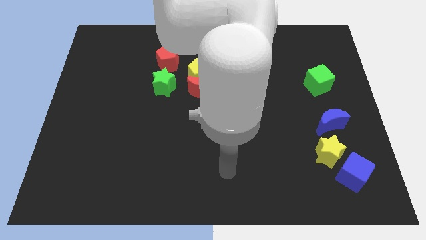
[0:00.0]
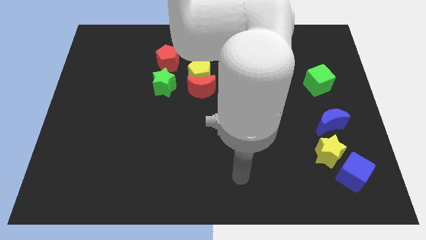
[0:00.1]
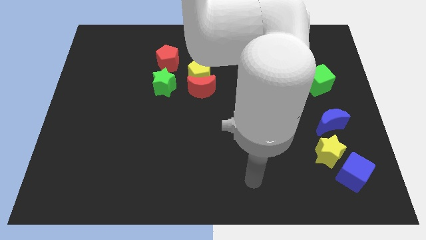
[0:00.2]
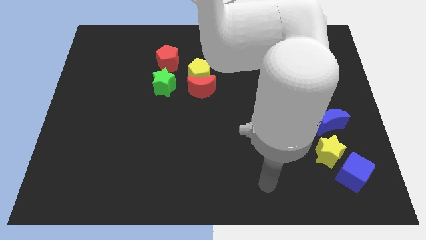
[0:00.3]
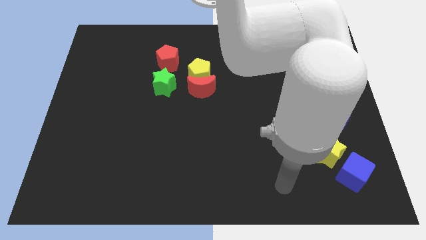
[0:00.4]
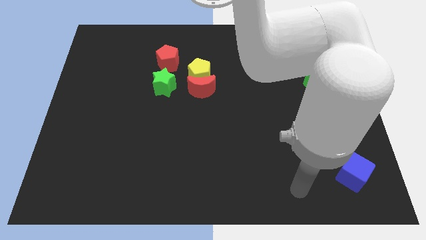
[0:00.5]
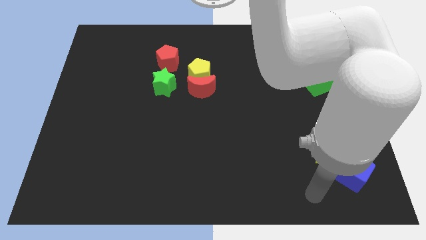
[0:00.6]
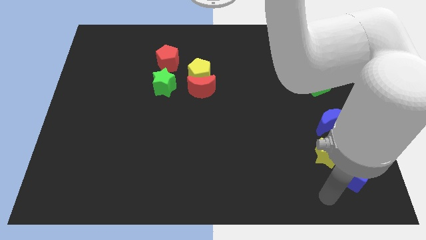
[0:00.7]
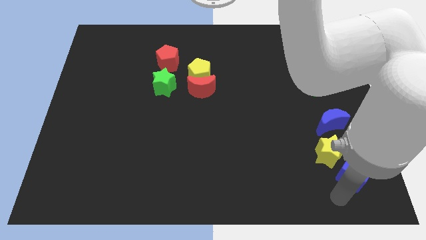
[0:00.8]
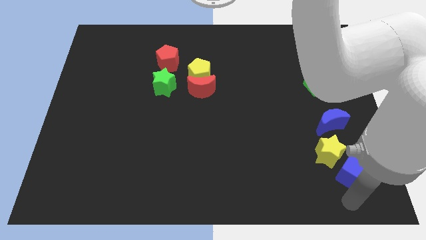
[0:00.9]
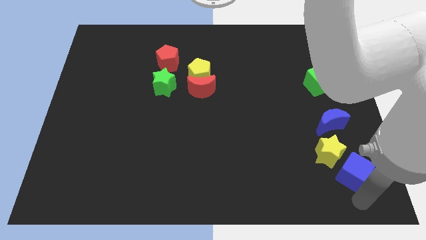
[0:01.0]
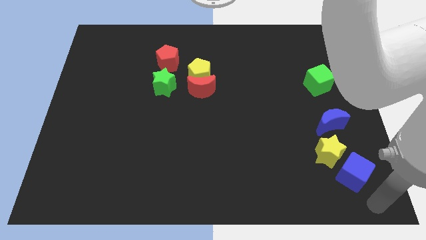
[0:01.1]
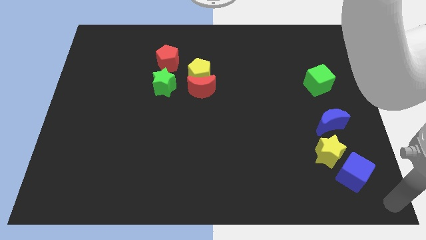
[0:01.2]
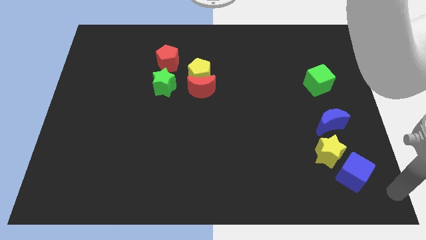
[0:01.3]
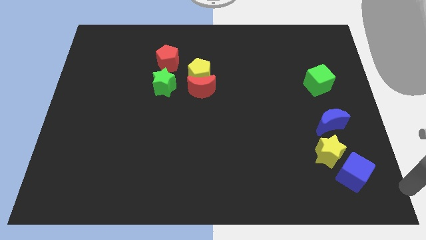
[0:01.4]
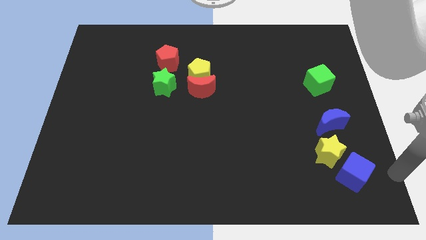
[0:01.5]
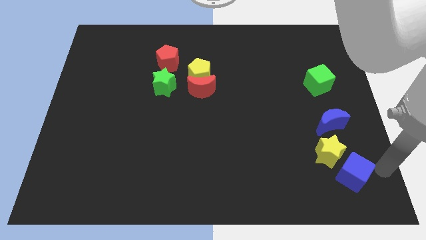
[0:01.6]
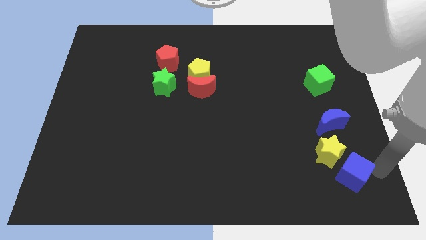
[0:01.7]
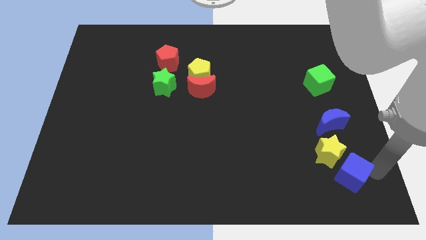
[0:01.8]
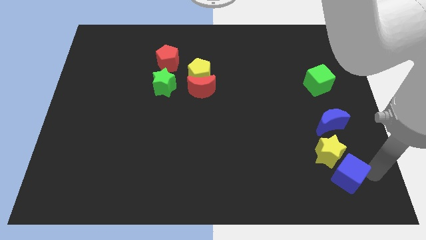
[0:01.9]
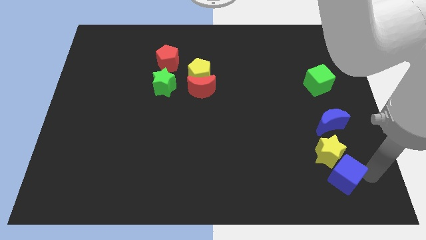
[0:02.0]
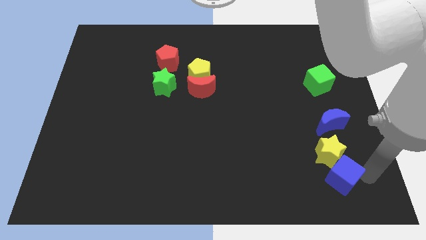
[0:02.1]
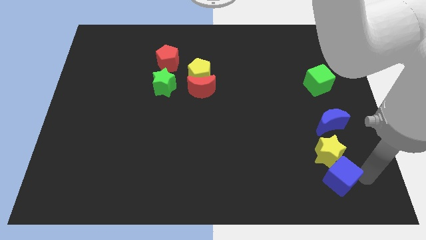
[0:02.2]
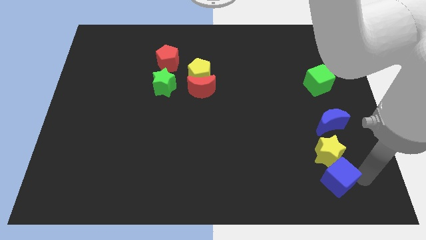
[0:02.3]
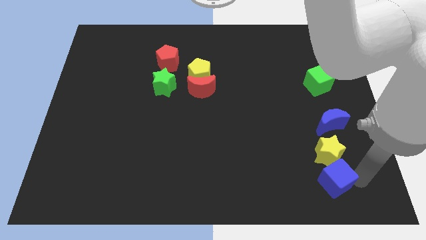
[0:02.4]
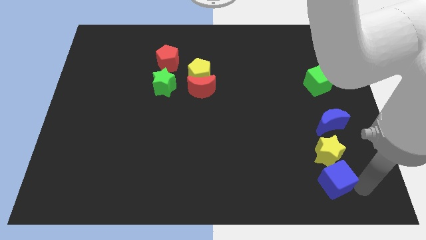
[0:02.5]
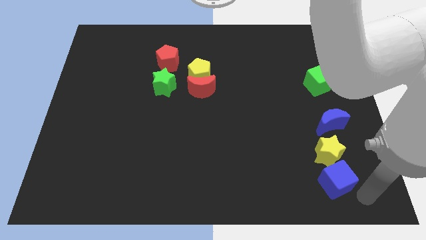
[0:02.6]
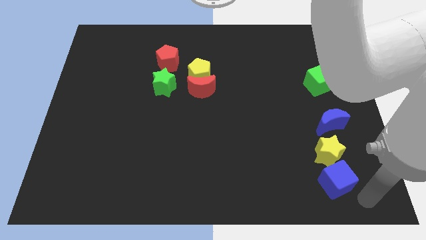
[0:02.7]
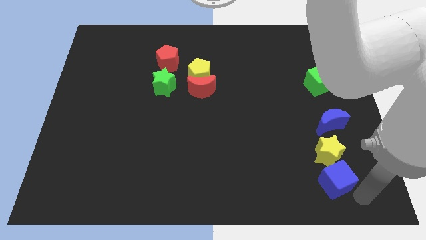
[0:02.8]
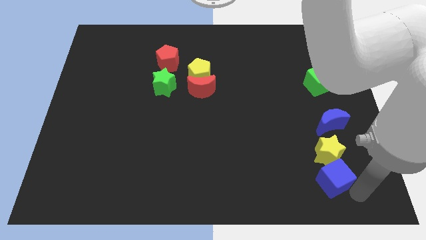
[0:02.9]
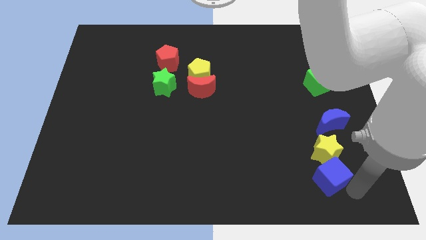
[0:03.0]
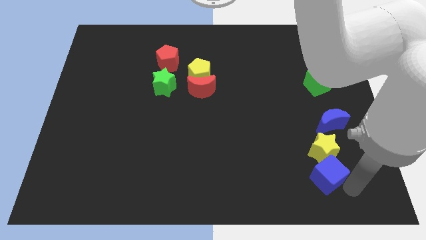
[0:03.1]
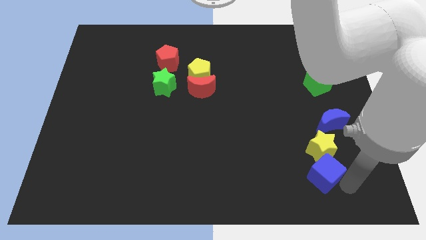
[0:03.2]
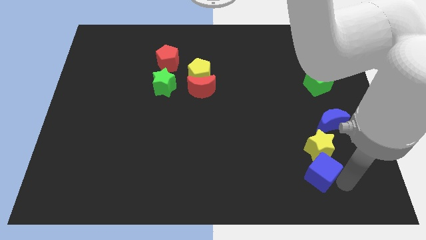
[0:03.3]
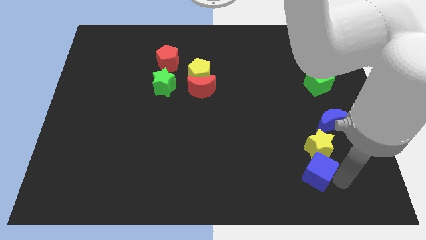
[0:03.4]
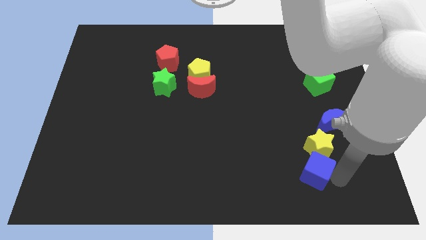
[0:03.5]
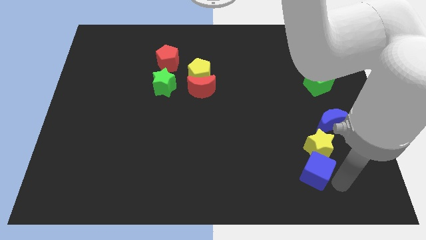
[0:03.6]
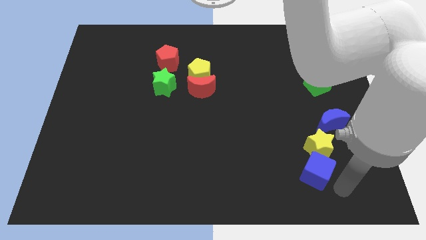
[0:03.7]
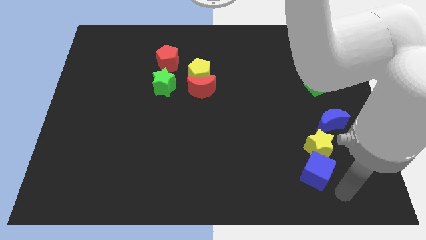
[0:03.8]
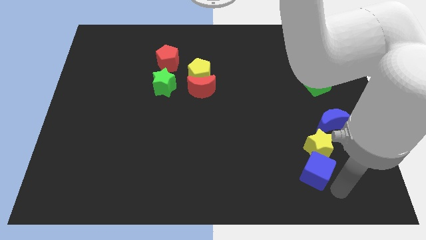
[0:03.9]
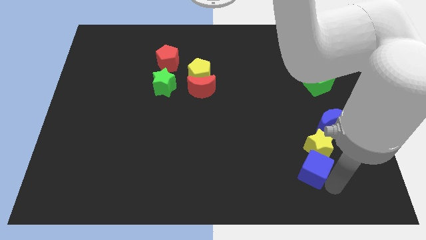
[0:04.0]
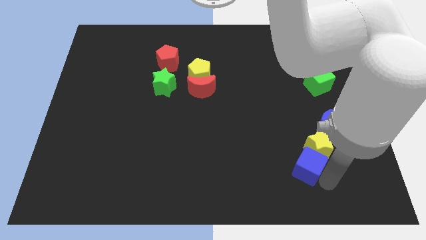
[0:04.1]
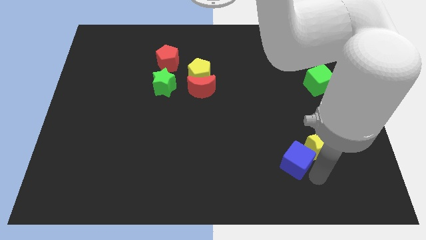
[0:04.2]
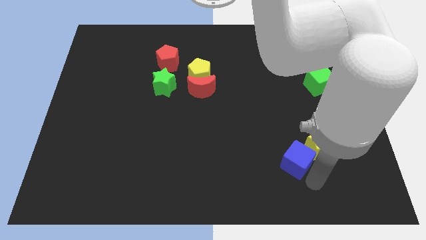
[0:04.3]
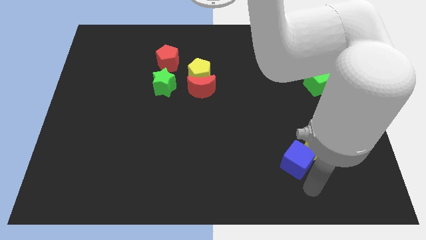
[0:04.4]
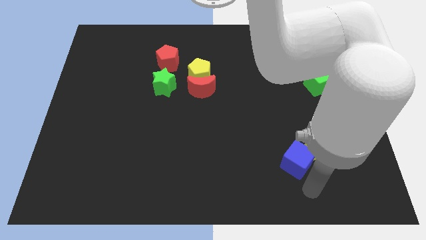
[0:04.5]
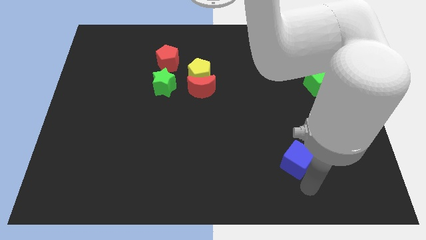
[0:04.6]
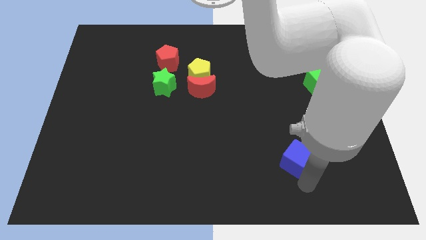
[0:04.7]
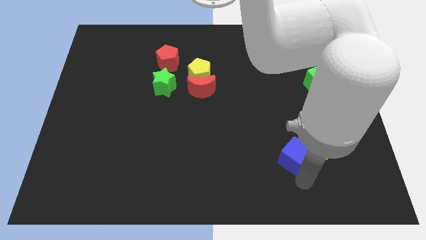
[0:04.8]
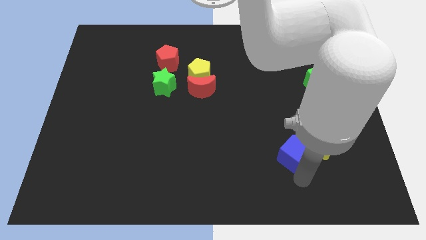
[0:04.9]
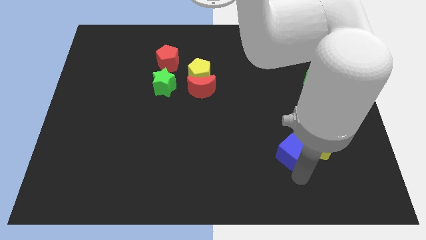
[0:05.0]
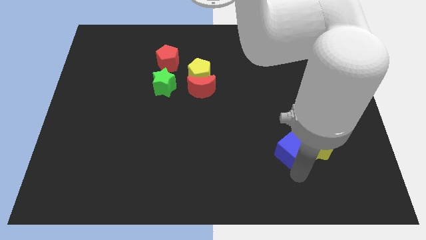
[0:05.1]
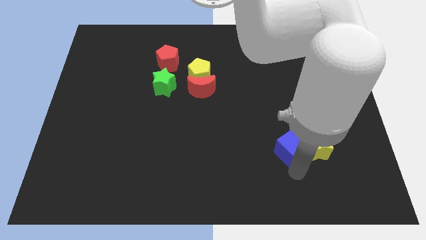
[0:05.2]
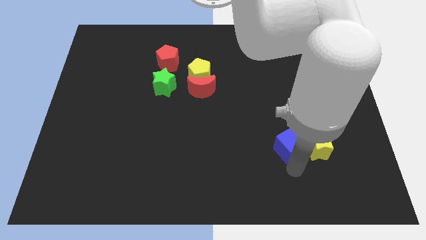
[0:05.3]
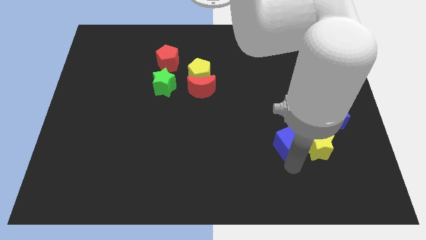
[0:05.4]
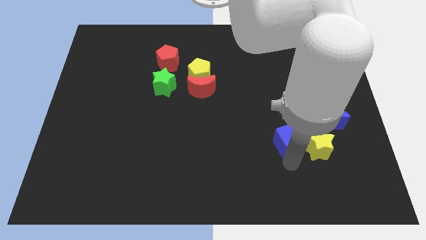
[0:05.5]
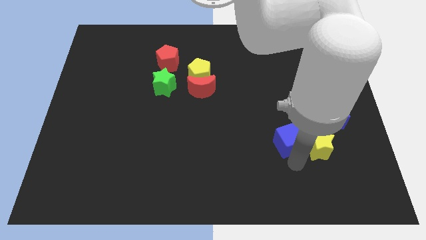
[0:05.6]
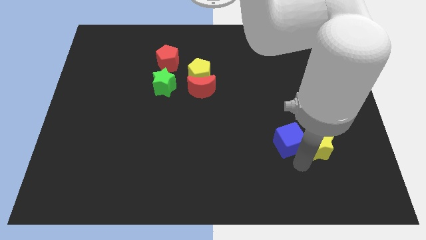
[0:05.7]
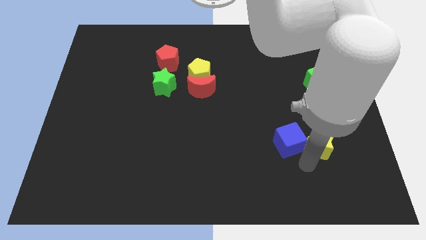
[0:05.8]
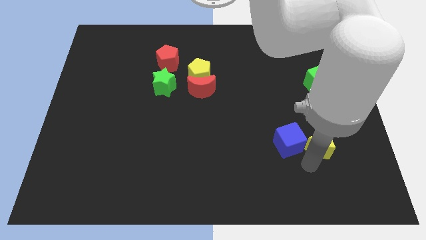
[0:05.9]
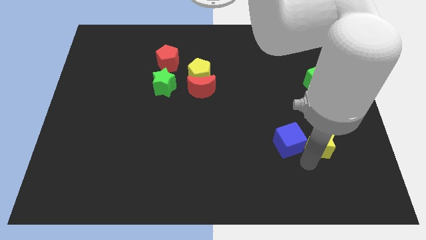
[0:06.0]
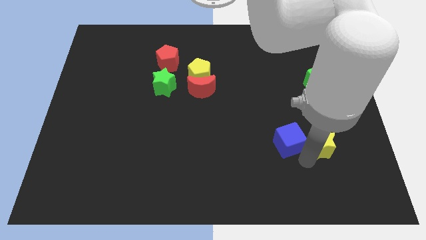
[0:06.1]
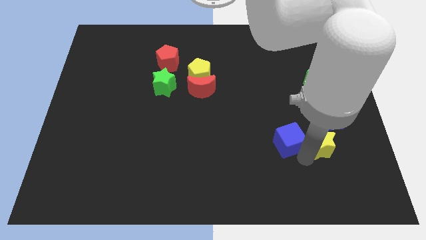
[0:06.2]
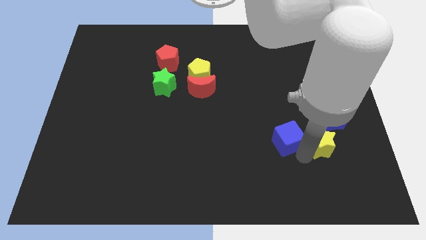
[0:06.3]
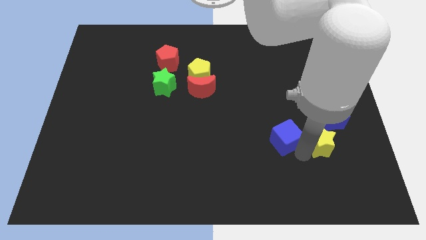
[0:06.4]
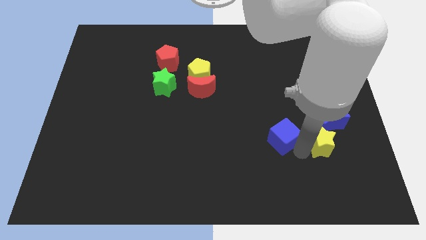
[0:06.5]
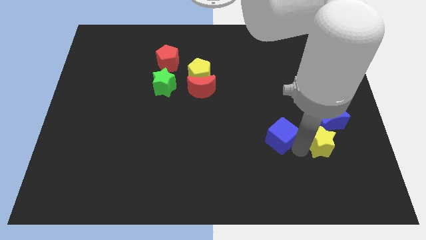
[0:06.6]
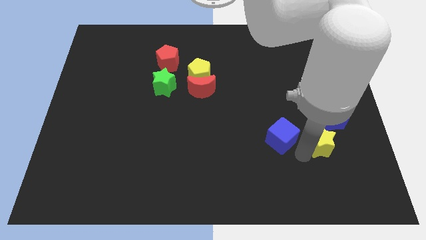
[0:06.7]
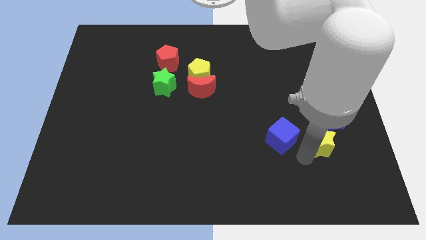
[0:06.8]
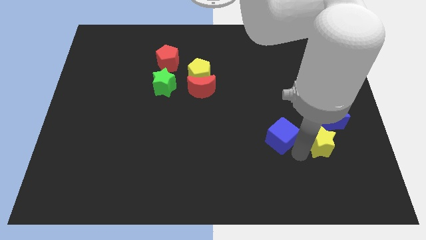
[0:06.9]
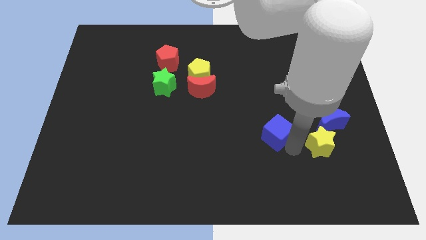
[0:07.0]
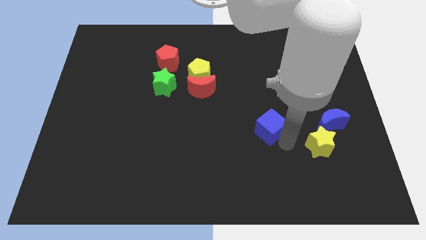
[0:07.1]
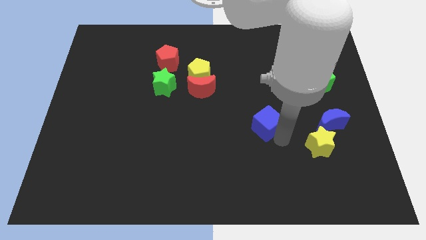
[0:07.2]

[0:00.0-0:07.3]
slide the blue cube upwards and left

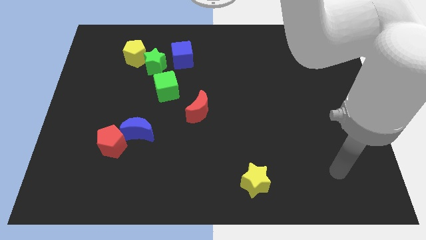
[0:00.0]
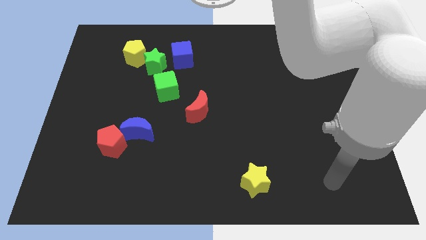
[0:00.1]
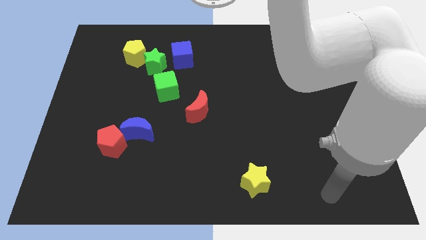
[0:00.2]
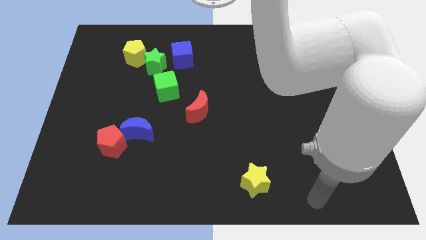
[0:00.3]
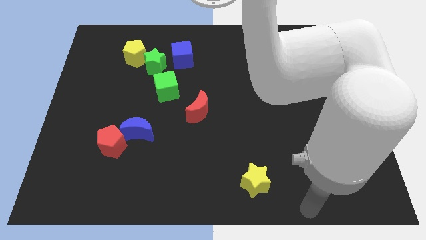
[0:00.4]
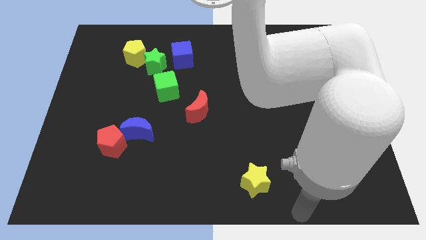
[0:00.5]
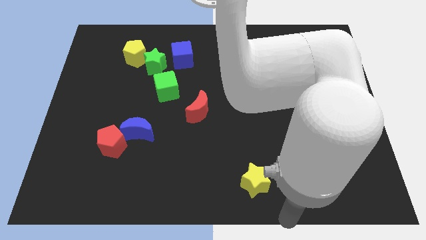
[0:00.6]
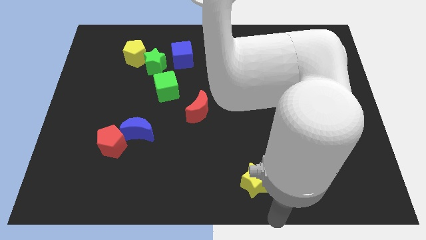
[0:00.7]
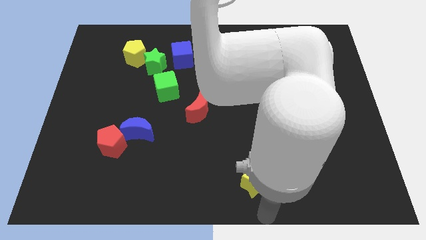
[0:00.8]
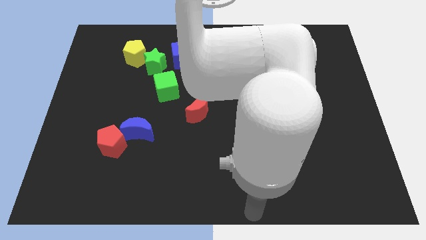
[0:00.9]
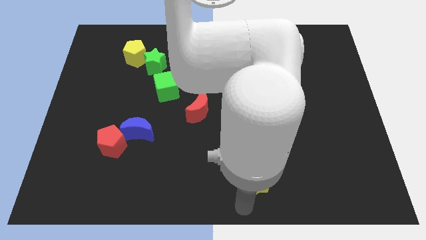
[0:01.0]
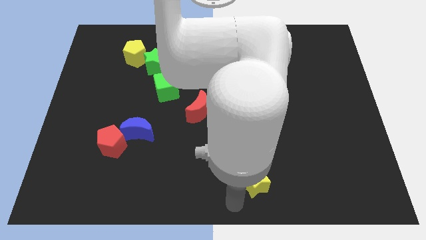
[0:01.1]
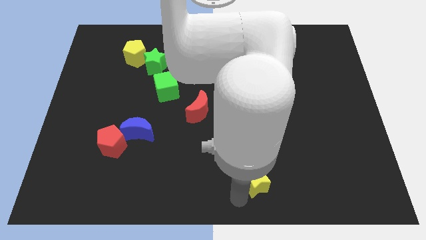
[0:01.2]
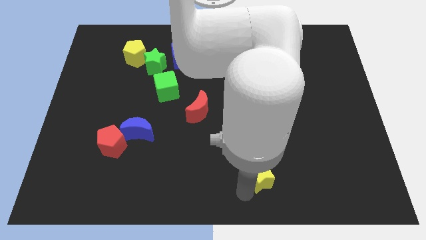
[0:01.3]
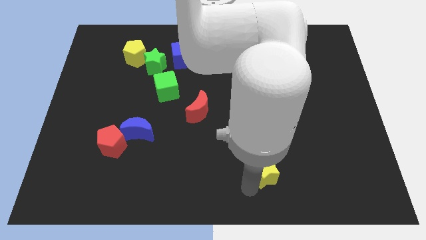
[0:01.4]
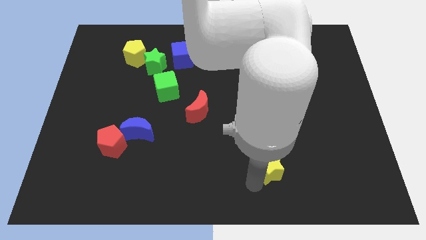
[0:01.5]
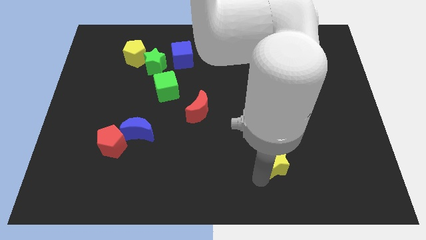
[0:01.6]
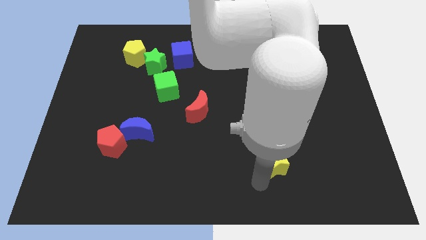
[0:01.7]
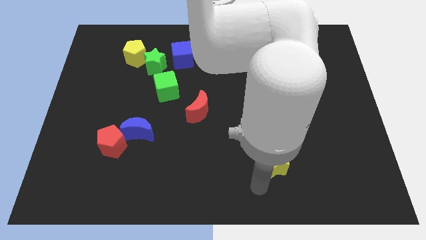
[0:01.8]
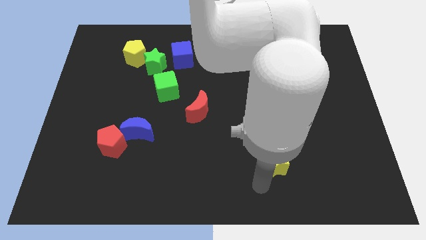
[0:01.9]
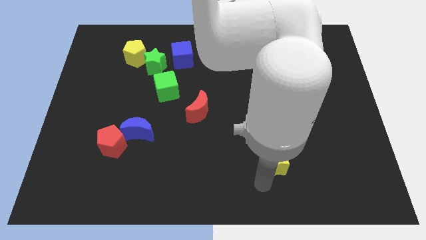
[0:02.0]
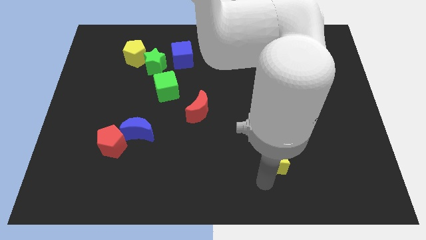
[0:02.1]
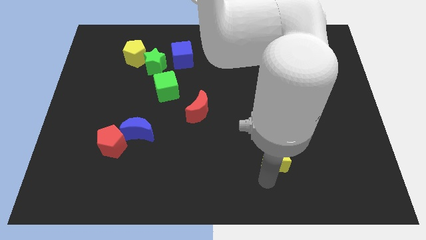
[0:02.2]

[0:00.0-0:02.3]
move the yellow star diagonally upwards and right somewhat
